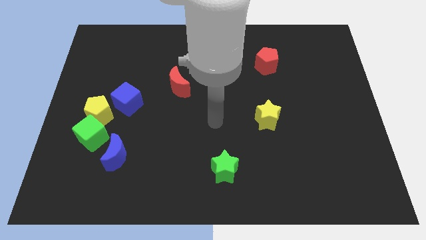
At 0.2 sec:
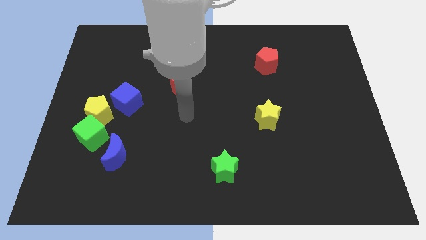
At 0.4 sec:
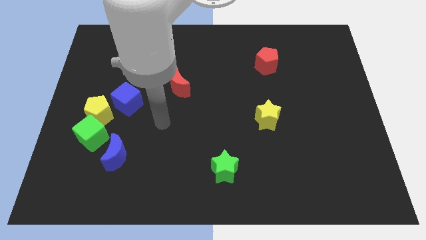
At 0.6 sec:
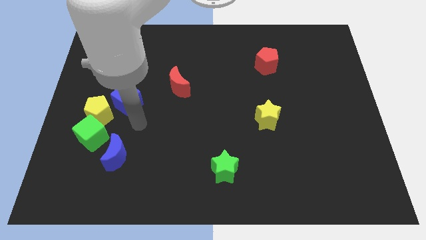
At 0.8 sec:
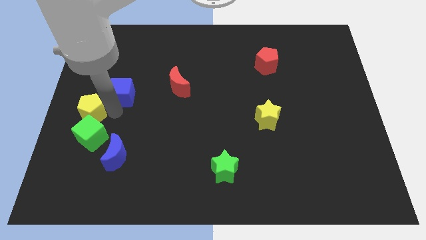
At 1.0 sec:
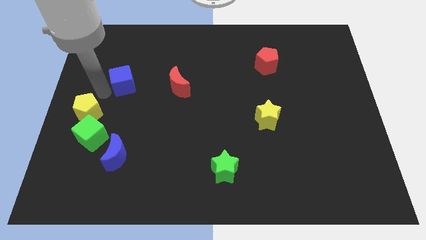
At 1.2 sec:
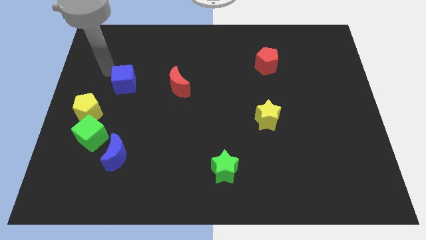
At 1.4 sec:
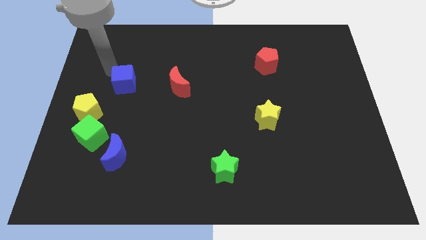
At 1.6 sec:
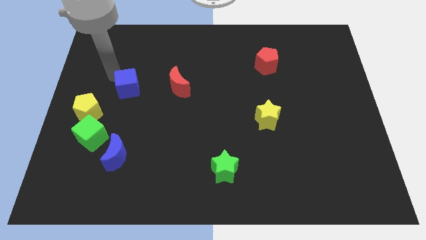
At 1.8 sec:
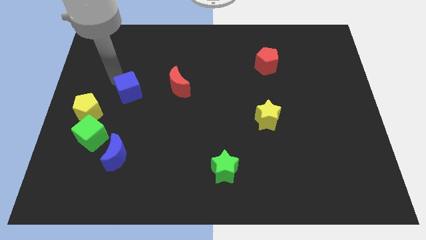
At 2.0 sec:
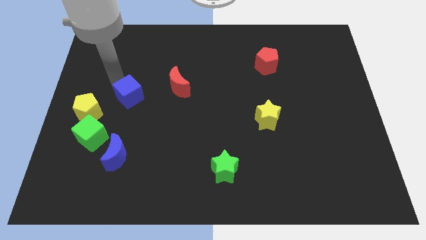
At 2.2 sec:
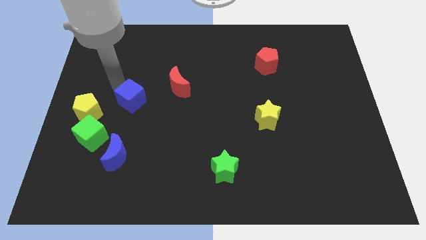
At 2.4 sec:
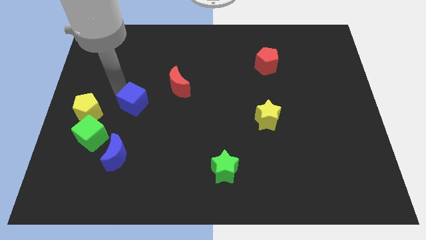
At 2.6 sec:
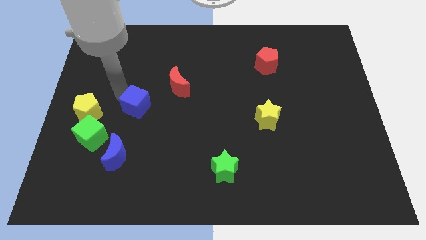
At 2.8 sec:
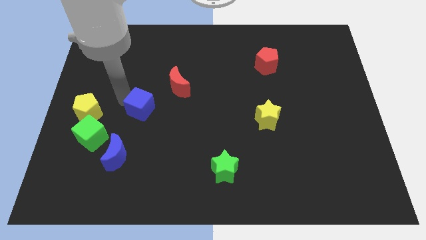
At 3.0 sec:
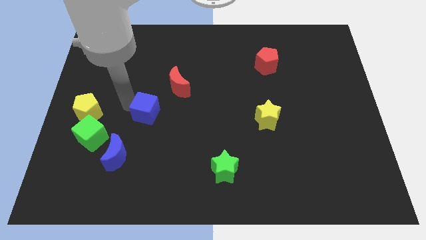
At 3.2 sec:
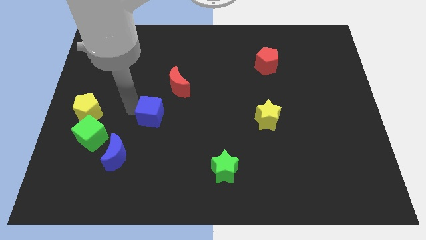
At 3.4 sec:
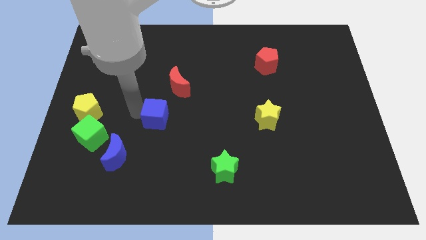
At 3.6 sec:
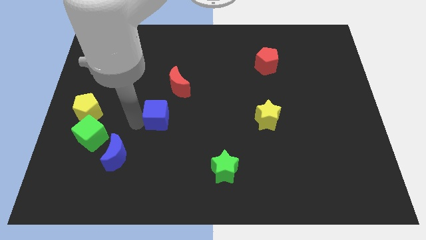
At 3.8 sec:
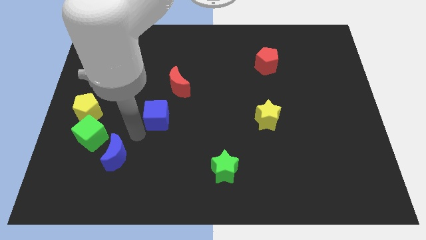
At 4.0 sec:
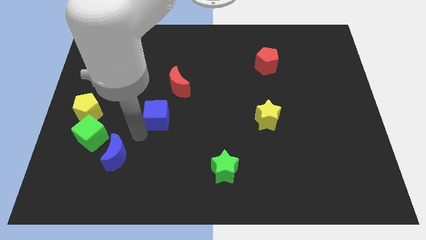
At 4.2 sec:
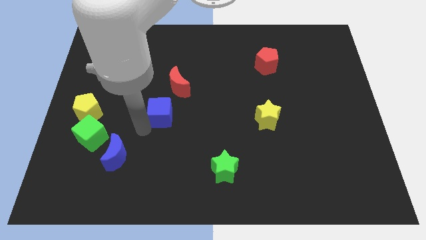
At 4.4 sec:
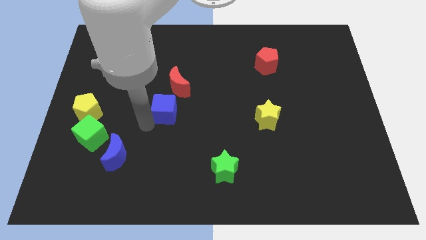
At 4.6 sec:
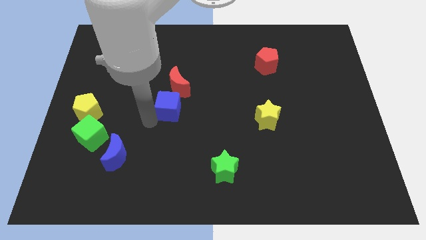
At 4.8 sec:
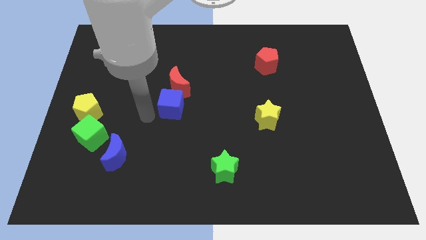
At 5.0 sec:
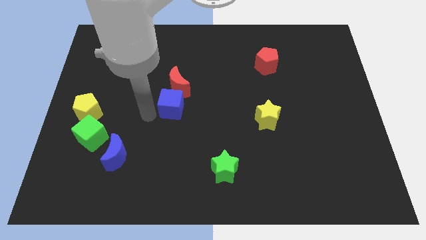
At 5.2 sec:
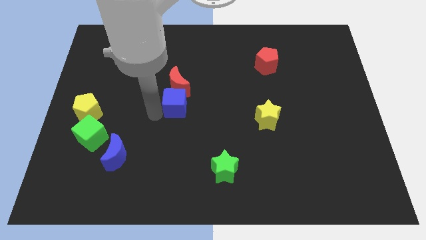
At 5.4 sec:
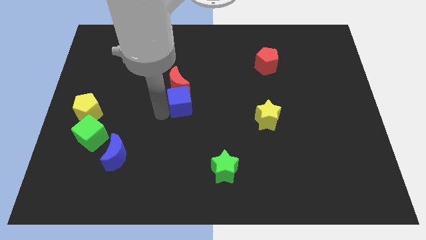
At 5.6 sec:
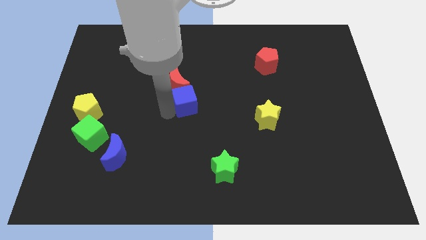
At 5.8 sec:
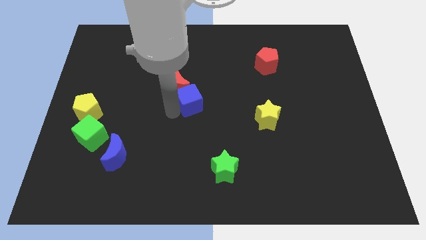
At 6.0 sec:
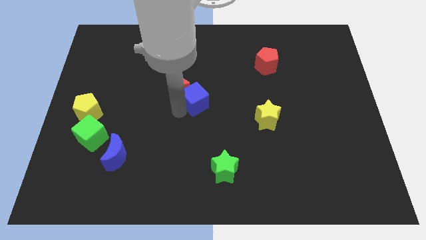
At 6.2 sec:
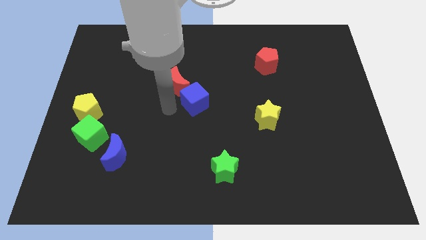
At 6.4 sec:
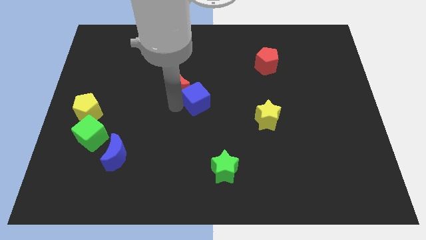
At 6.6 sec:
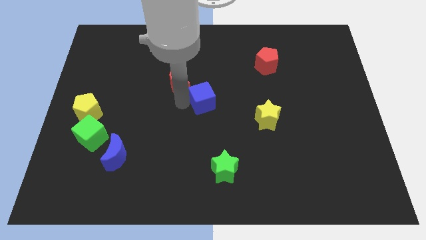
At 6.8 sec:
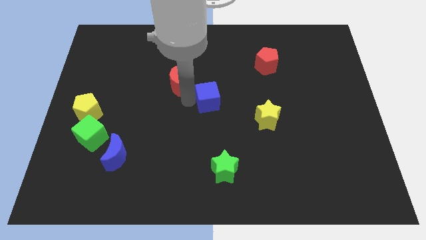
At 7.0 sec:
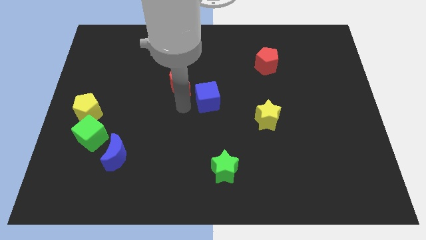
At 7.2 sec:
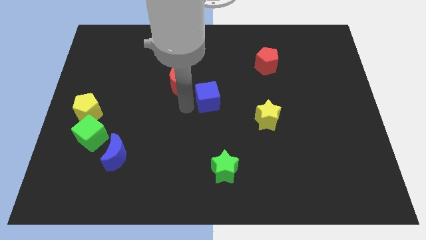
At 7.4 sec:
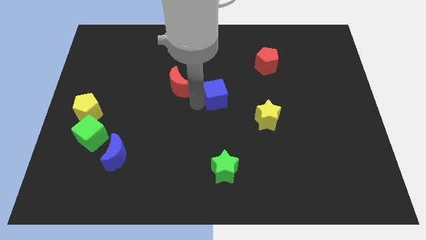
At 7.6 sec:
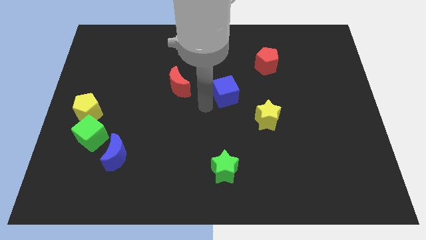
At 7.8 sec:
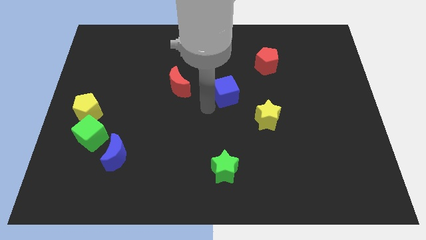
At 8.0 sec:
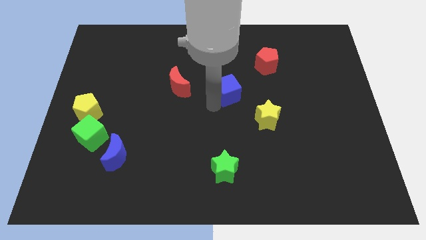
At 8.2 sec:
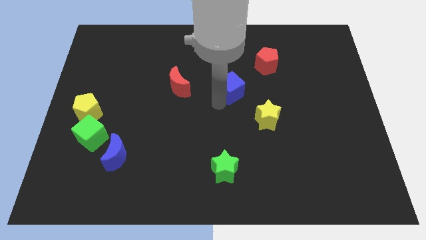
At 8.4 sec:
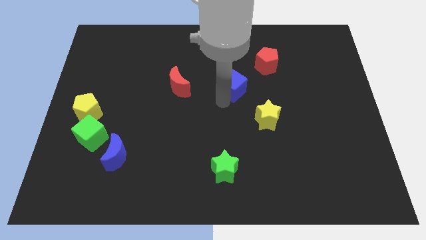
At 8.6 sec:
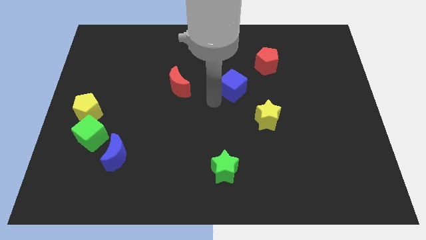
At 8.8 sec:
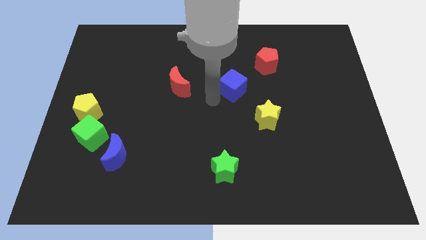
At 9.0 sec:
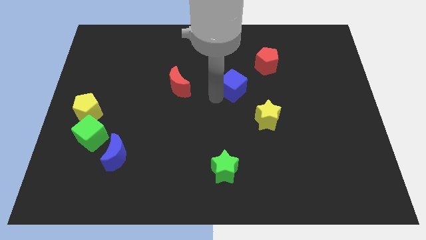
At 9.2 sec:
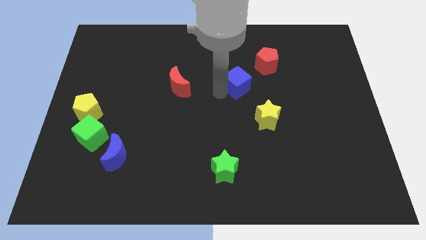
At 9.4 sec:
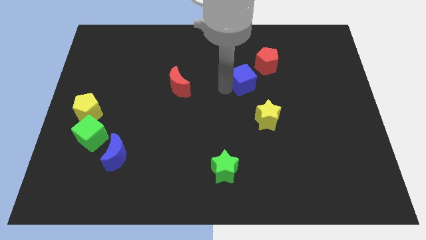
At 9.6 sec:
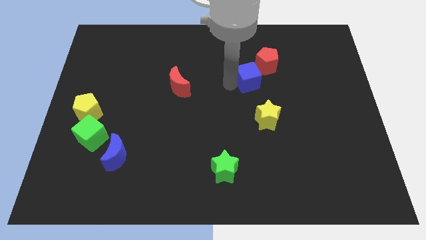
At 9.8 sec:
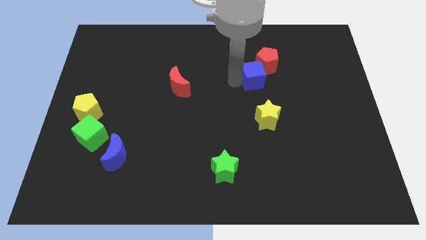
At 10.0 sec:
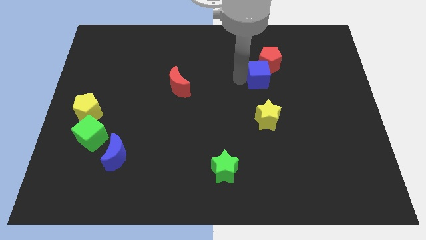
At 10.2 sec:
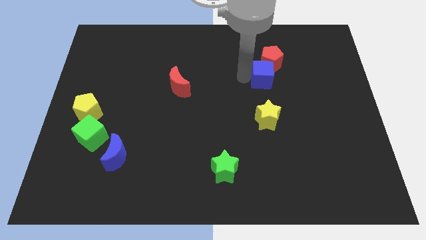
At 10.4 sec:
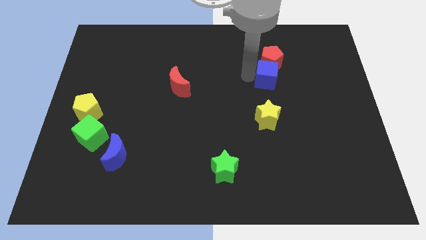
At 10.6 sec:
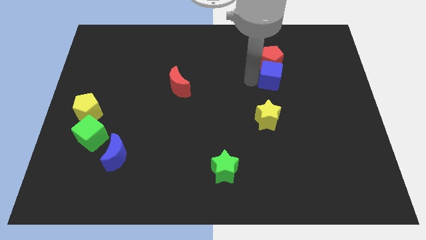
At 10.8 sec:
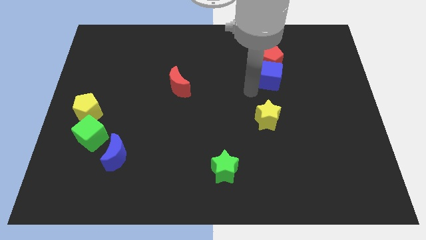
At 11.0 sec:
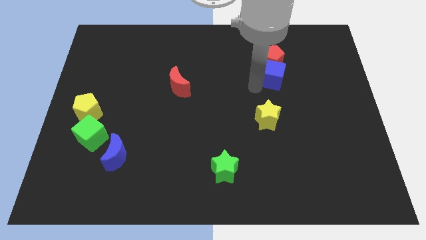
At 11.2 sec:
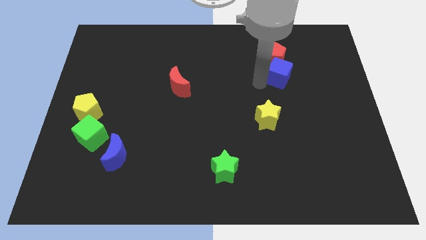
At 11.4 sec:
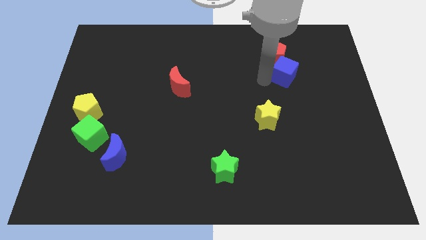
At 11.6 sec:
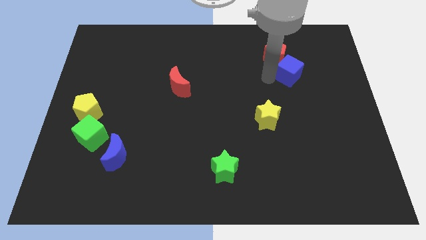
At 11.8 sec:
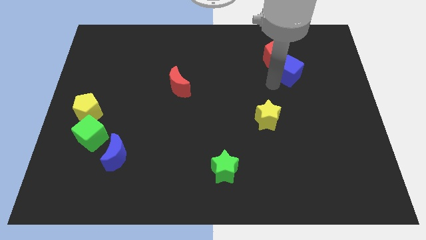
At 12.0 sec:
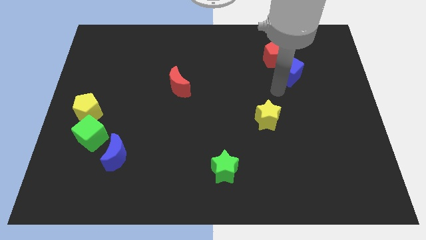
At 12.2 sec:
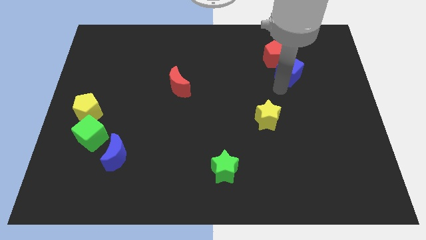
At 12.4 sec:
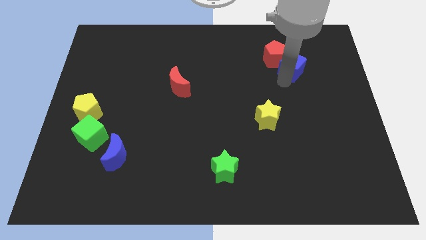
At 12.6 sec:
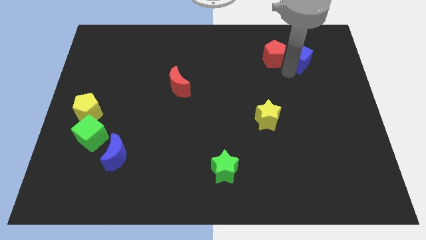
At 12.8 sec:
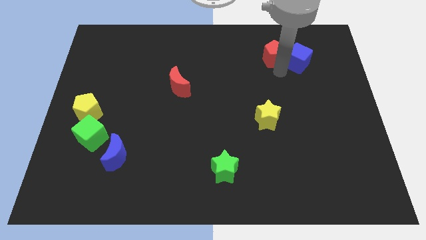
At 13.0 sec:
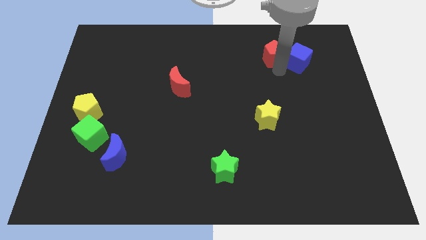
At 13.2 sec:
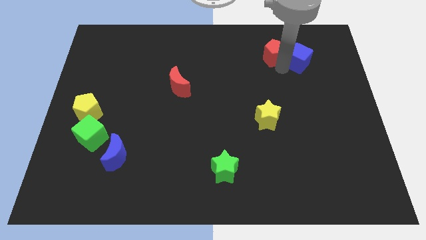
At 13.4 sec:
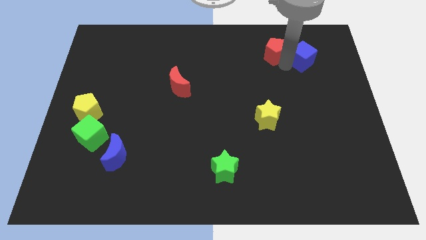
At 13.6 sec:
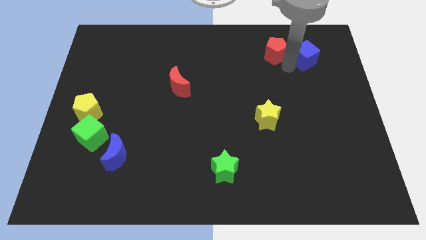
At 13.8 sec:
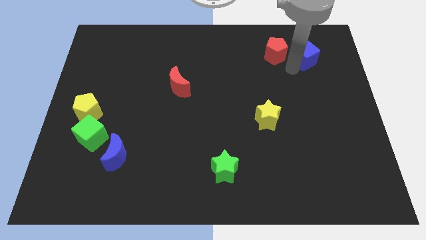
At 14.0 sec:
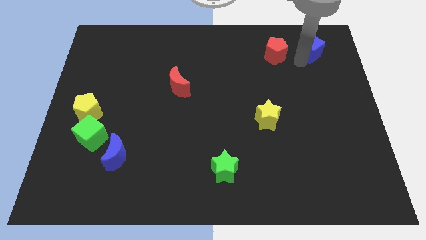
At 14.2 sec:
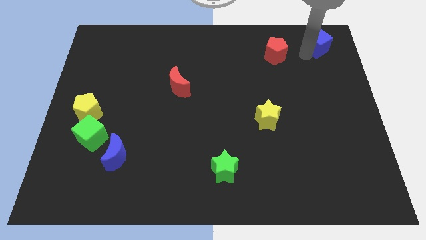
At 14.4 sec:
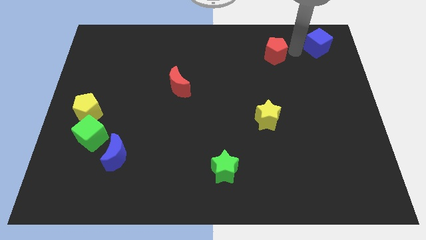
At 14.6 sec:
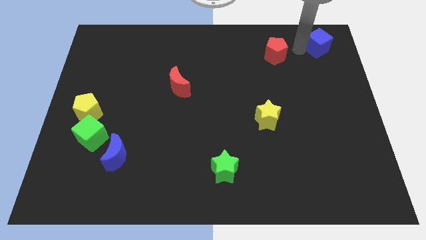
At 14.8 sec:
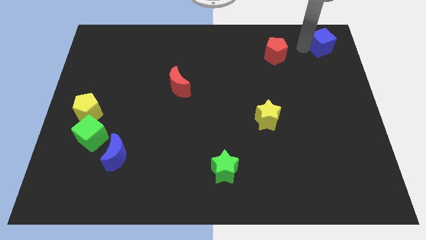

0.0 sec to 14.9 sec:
slide the blue cube to the top right

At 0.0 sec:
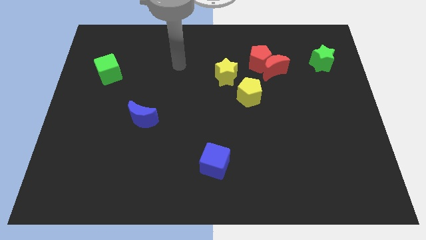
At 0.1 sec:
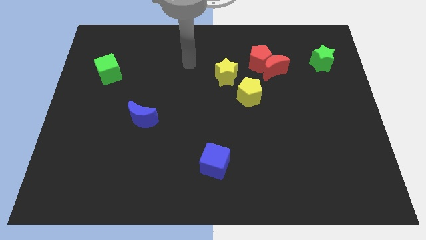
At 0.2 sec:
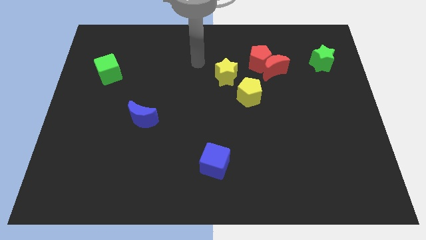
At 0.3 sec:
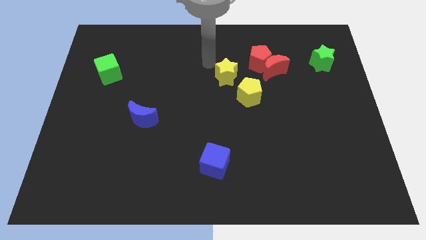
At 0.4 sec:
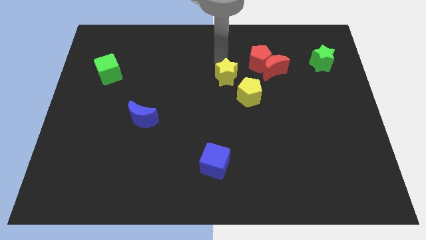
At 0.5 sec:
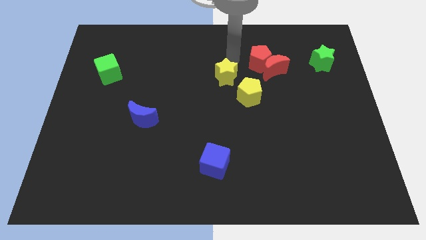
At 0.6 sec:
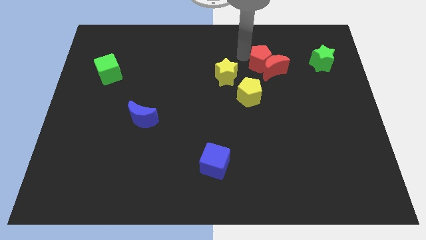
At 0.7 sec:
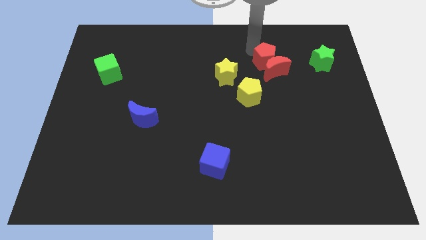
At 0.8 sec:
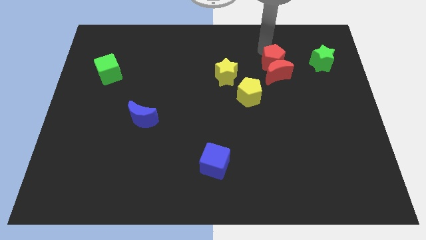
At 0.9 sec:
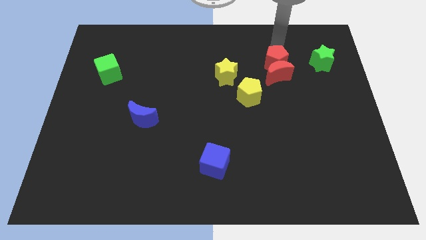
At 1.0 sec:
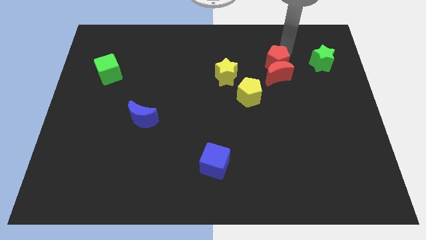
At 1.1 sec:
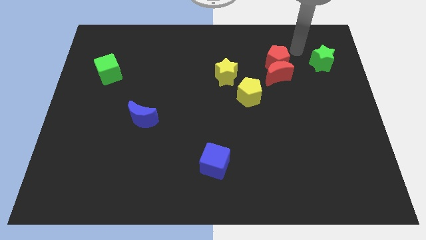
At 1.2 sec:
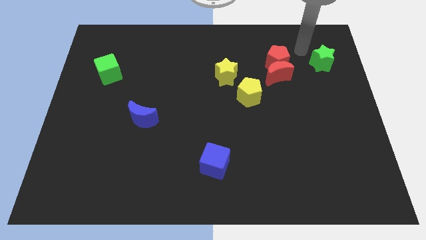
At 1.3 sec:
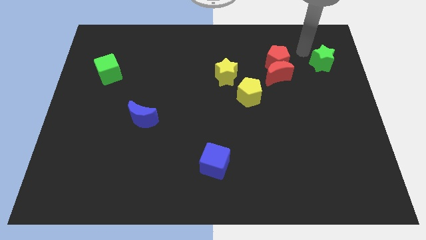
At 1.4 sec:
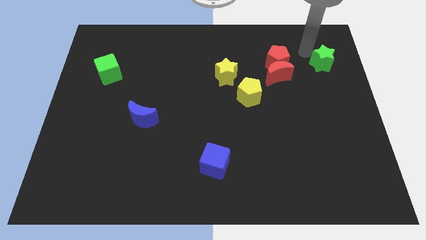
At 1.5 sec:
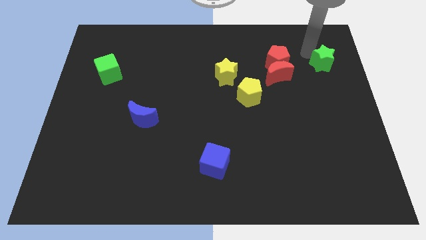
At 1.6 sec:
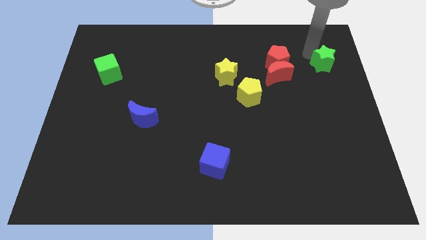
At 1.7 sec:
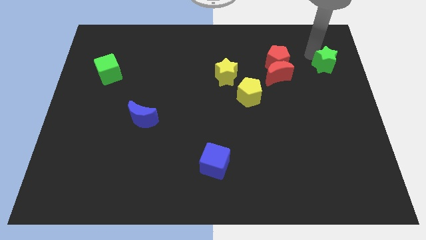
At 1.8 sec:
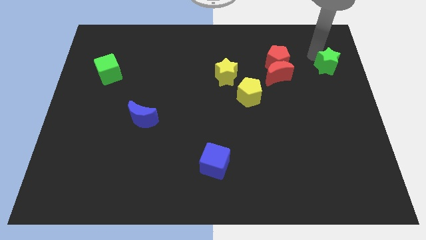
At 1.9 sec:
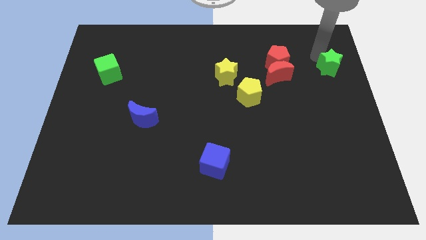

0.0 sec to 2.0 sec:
move the green star to the right side of the board
